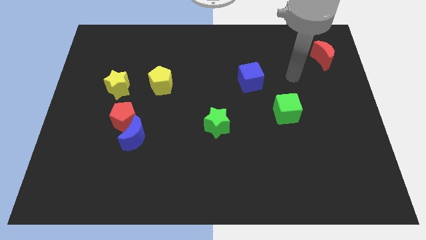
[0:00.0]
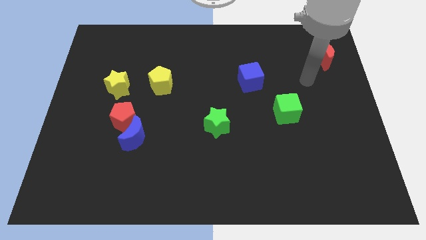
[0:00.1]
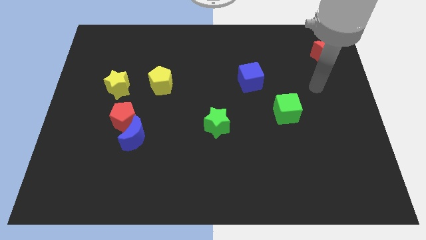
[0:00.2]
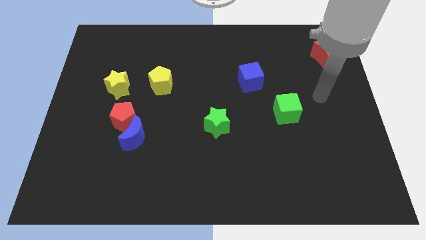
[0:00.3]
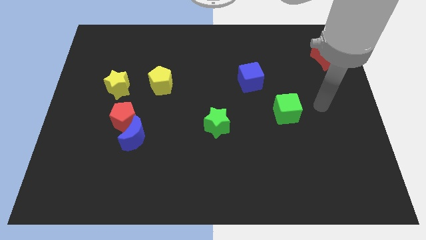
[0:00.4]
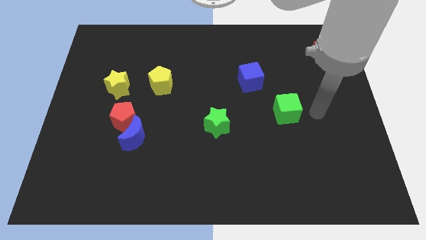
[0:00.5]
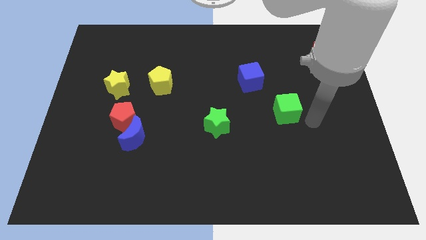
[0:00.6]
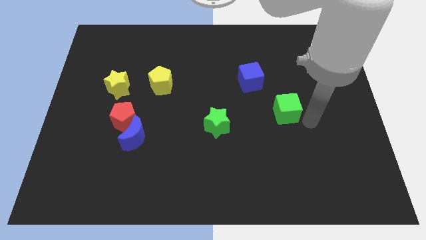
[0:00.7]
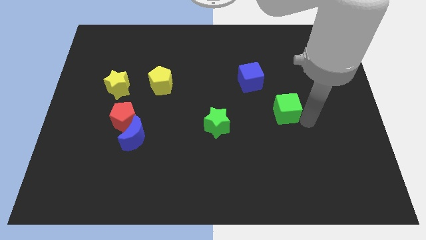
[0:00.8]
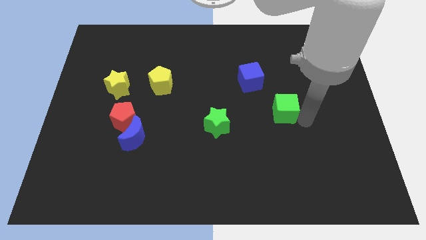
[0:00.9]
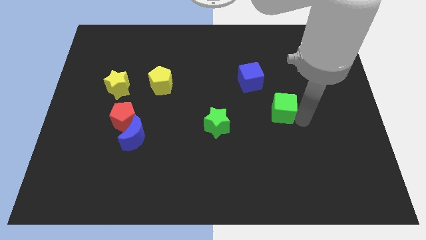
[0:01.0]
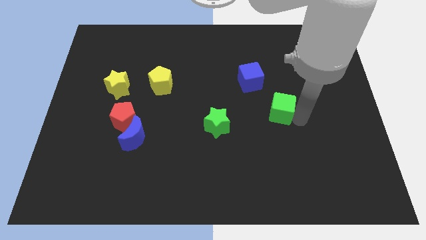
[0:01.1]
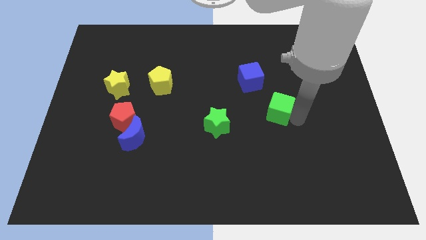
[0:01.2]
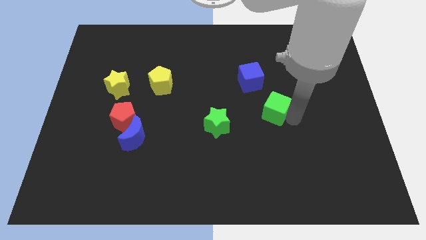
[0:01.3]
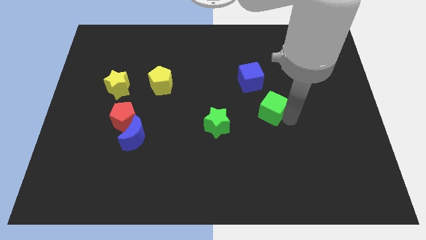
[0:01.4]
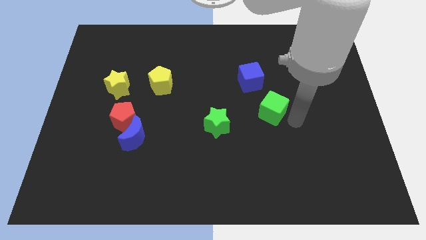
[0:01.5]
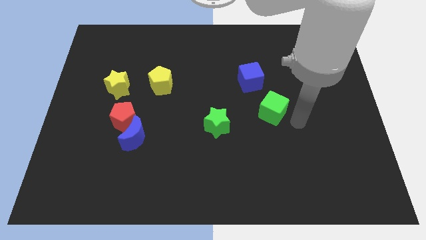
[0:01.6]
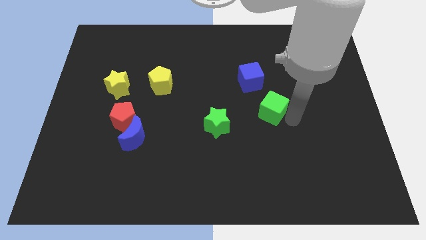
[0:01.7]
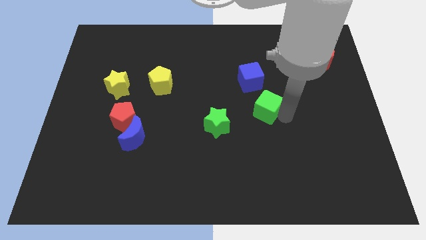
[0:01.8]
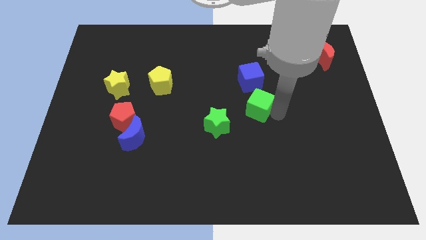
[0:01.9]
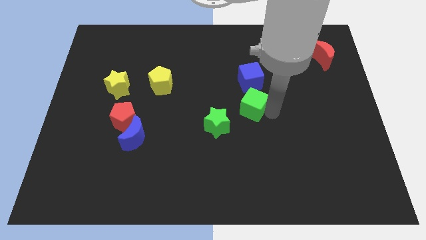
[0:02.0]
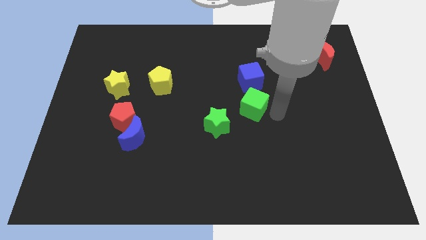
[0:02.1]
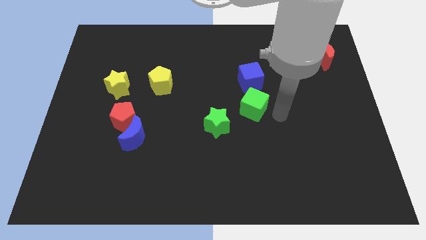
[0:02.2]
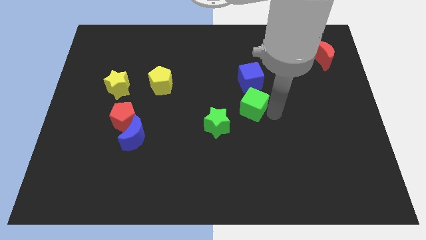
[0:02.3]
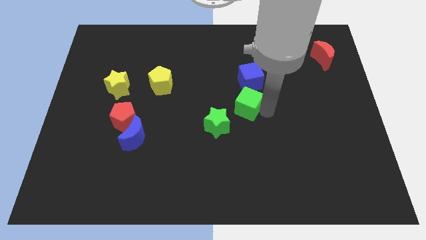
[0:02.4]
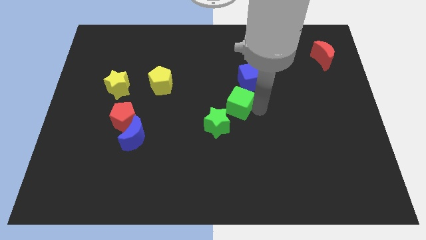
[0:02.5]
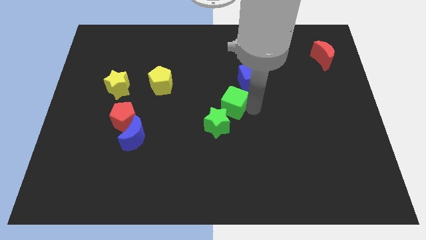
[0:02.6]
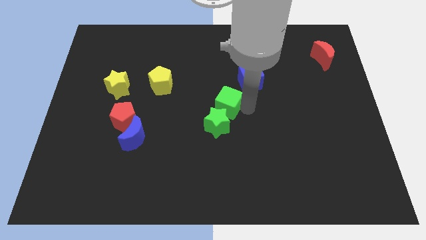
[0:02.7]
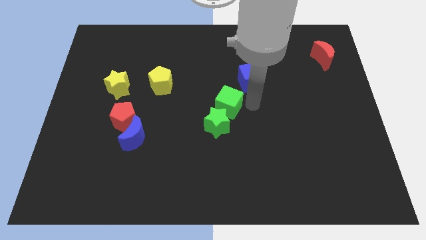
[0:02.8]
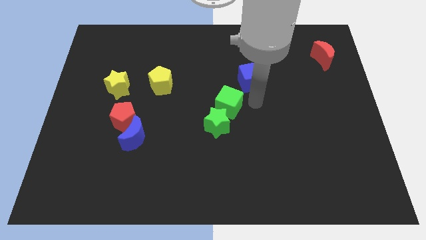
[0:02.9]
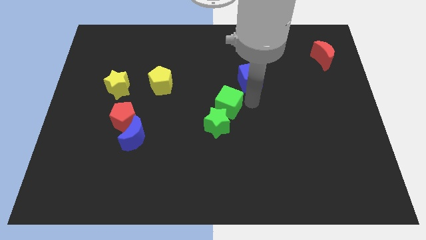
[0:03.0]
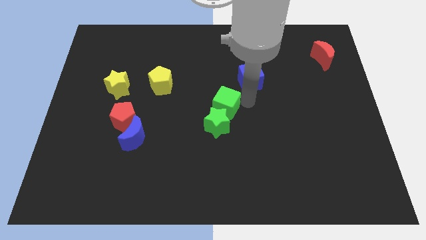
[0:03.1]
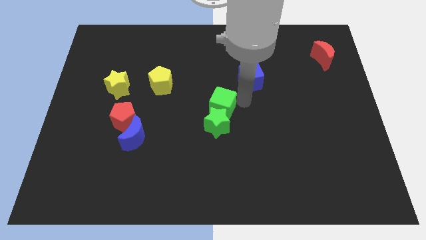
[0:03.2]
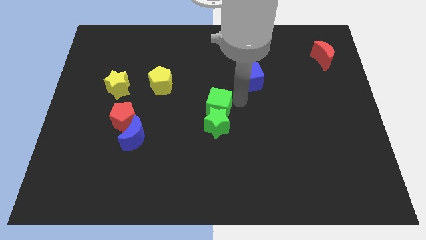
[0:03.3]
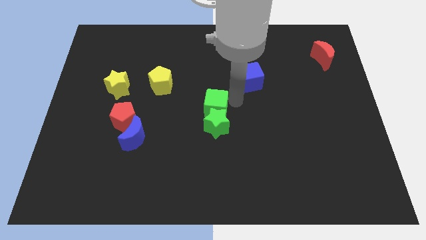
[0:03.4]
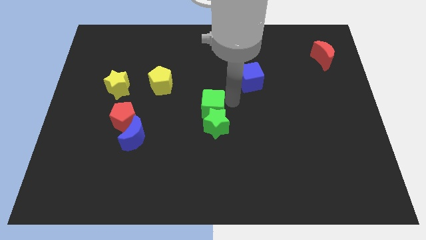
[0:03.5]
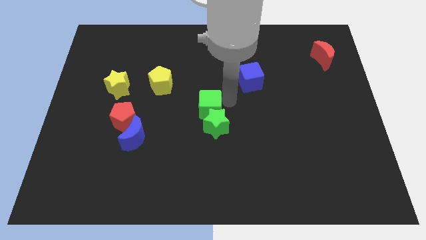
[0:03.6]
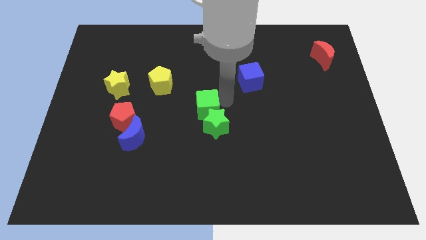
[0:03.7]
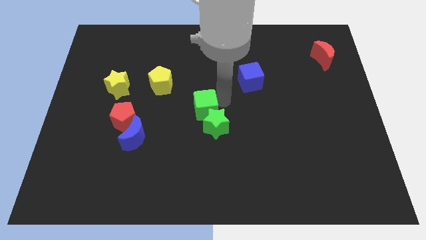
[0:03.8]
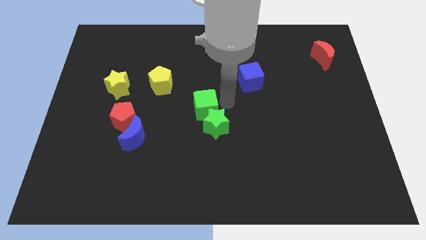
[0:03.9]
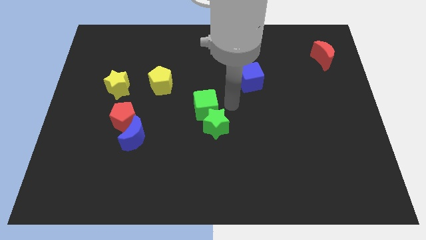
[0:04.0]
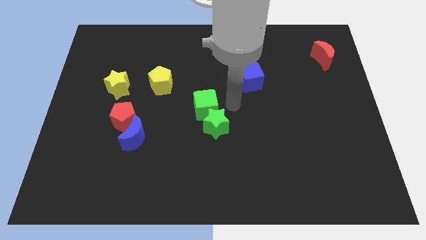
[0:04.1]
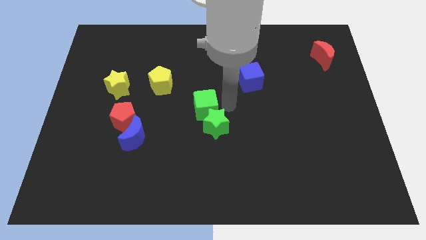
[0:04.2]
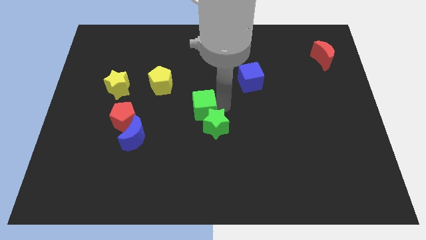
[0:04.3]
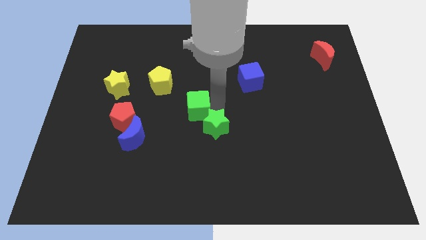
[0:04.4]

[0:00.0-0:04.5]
push the green cube to the left

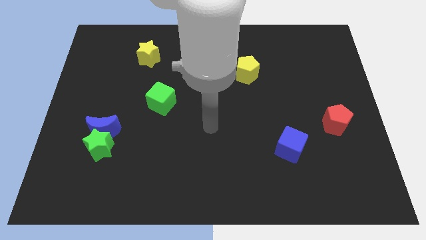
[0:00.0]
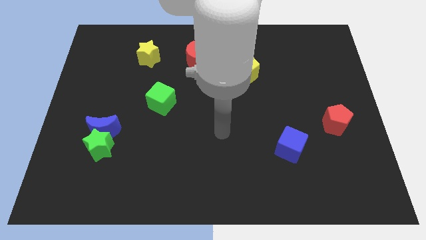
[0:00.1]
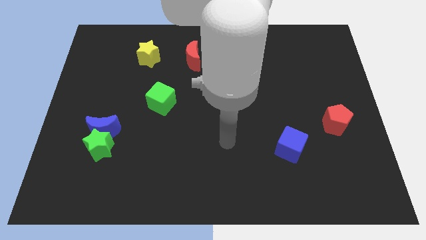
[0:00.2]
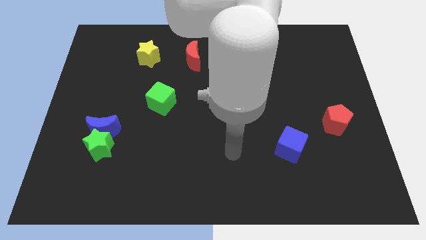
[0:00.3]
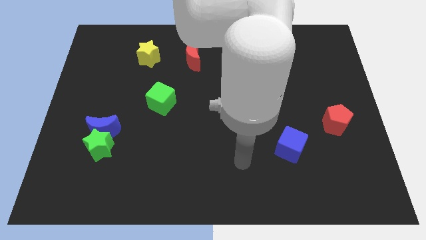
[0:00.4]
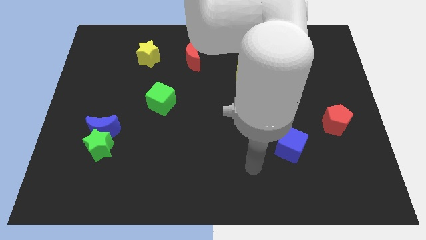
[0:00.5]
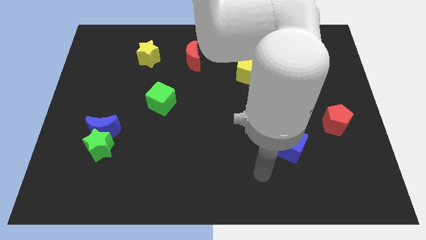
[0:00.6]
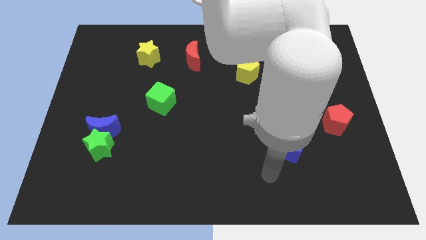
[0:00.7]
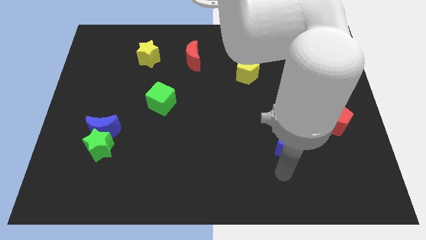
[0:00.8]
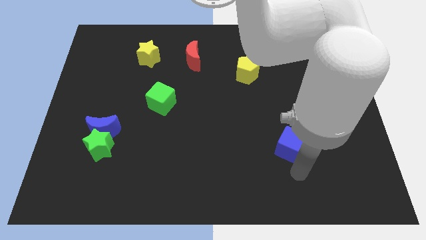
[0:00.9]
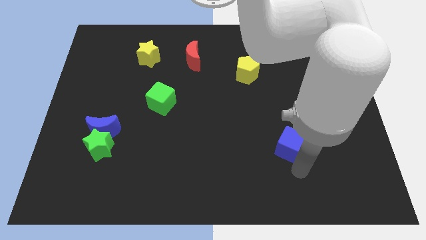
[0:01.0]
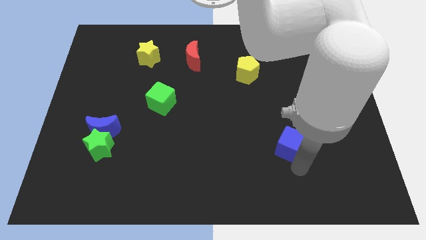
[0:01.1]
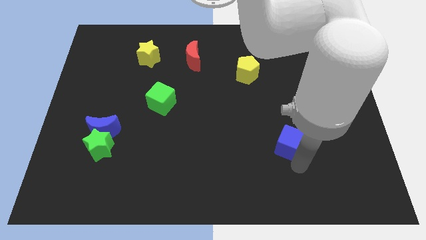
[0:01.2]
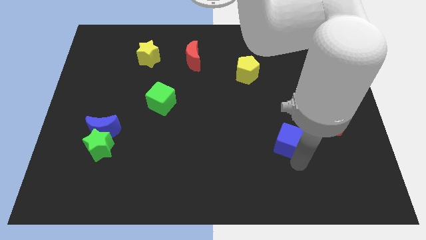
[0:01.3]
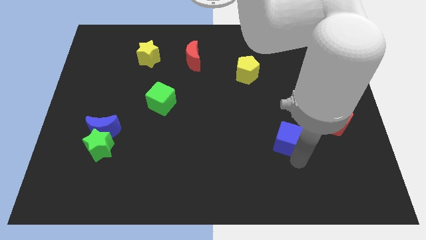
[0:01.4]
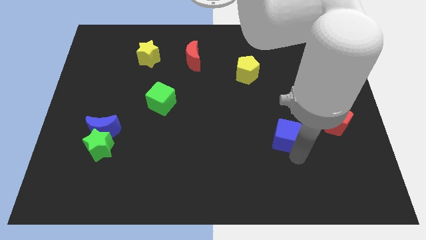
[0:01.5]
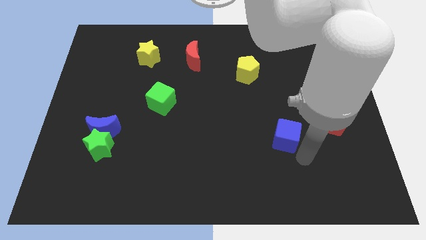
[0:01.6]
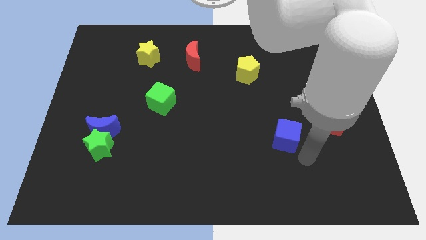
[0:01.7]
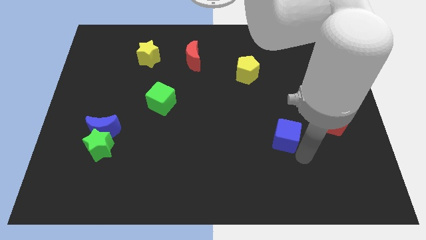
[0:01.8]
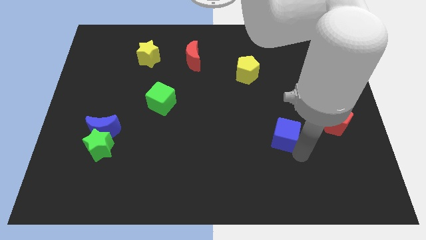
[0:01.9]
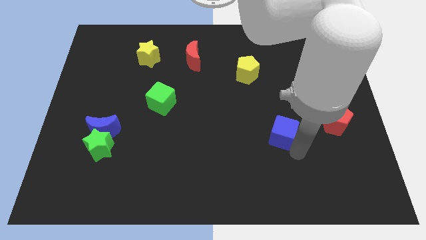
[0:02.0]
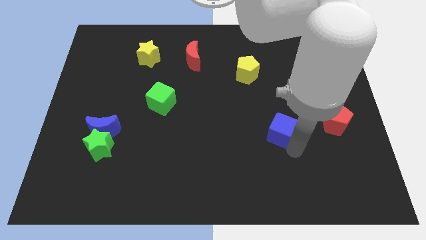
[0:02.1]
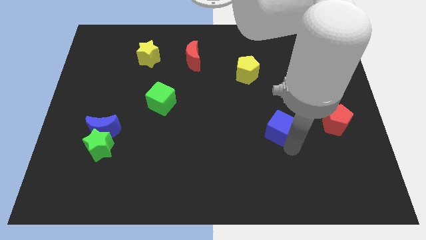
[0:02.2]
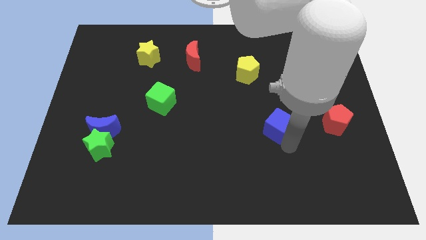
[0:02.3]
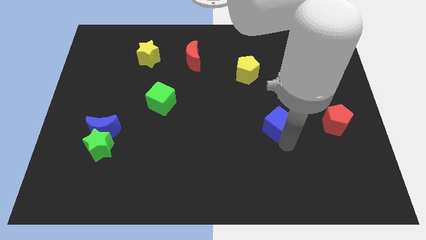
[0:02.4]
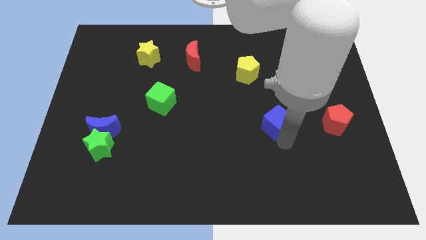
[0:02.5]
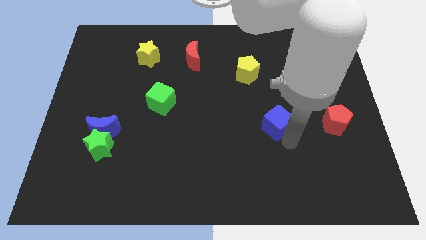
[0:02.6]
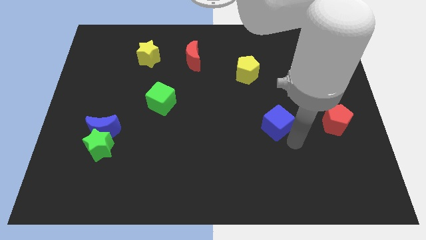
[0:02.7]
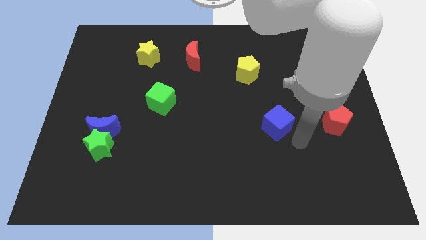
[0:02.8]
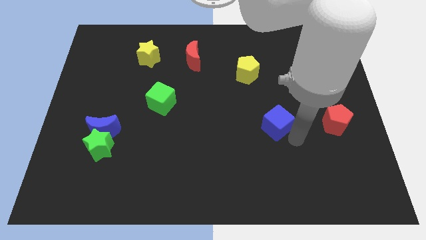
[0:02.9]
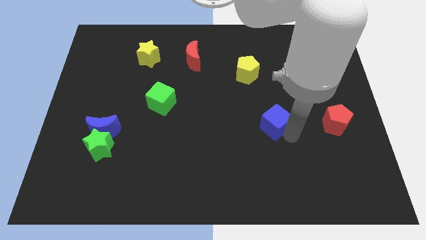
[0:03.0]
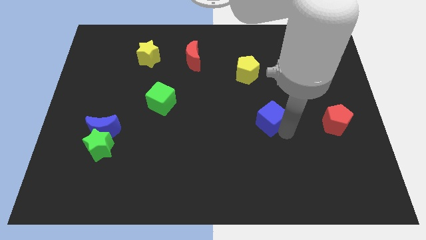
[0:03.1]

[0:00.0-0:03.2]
push the blue cube a little bit diagonally up and to the left

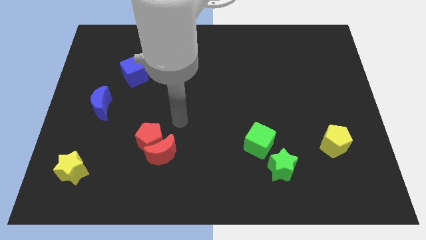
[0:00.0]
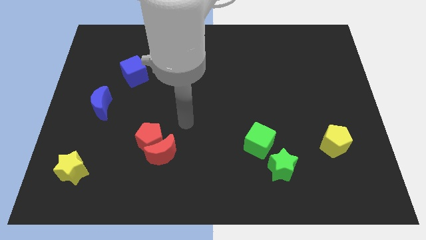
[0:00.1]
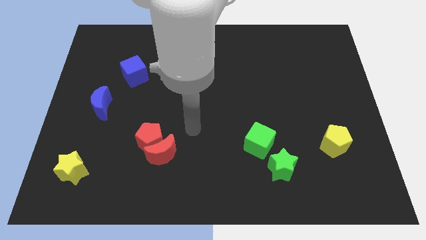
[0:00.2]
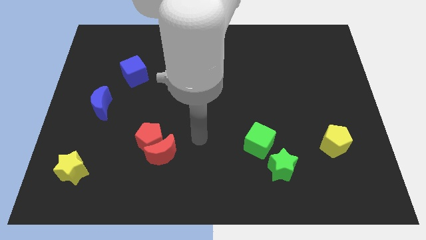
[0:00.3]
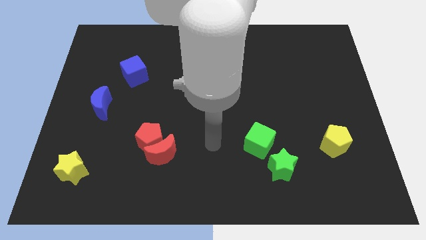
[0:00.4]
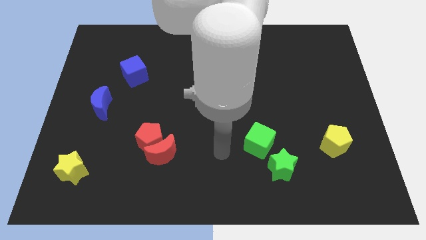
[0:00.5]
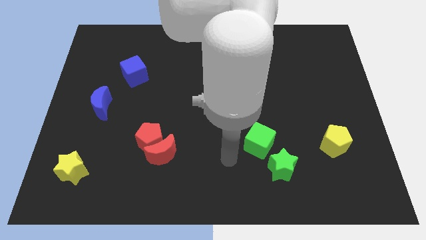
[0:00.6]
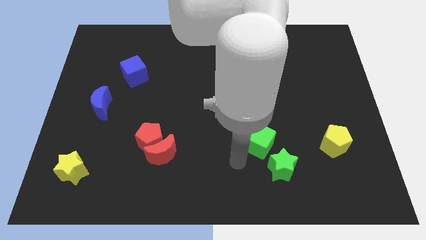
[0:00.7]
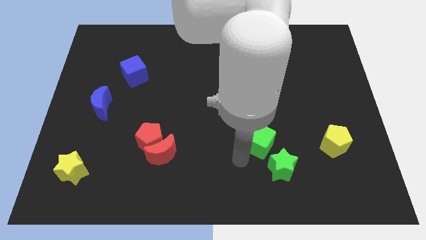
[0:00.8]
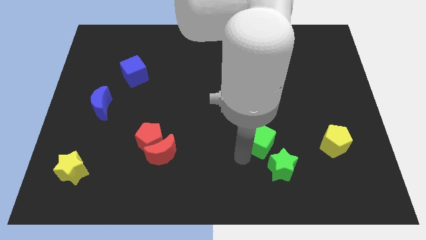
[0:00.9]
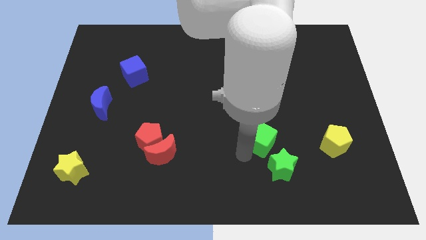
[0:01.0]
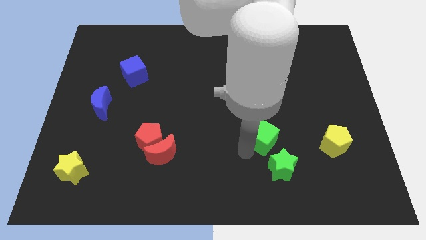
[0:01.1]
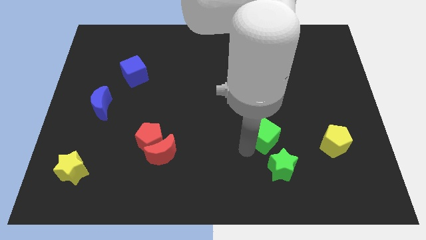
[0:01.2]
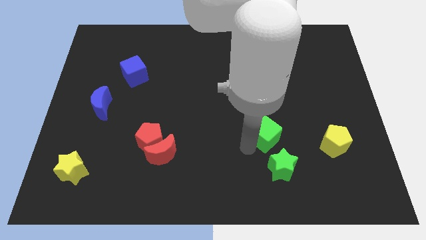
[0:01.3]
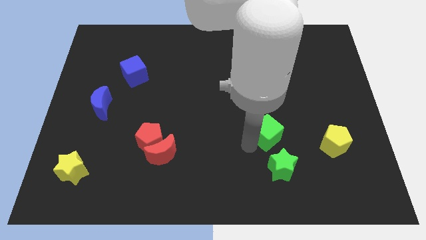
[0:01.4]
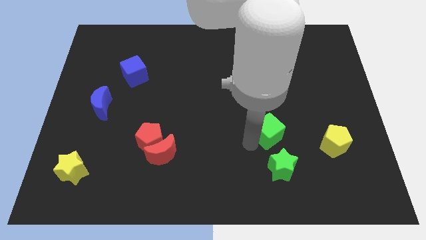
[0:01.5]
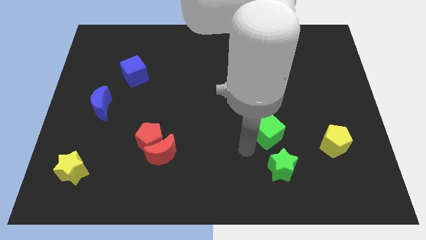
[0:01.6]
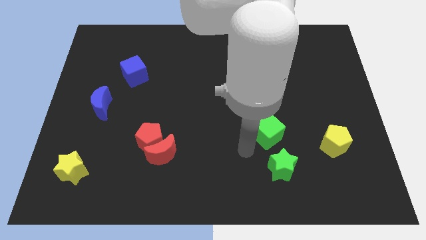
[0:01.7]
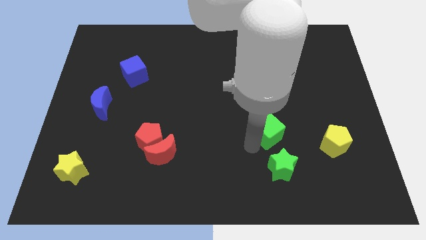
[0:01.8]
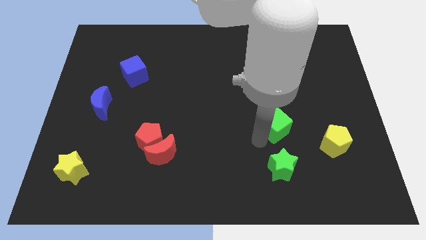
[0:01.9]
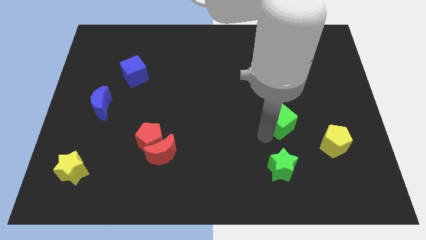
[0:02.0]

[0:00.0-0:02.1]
slightly push the green cube up and then to the right
